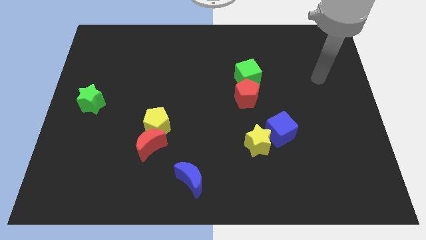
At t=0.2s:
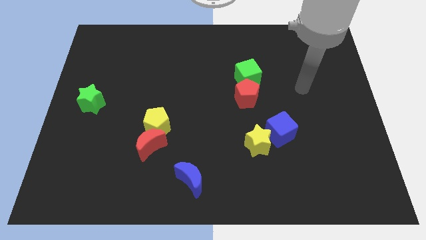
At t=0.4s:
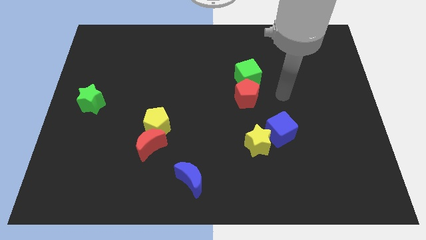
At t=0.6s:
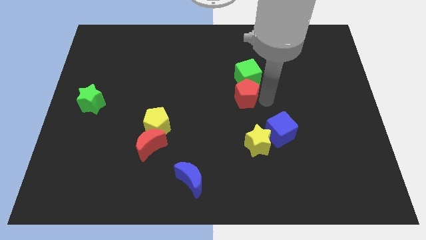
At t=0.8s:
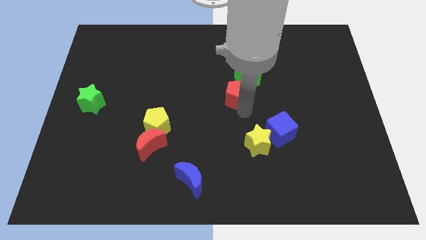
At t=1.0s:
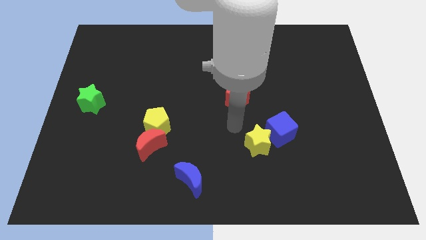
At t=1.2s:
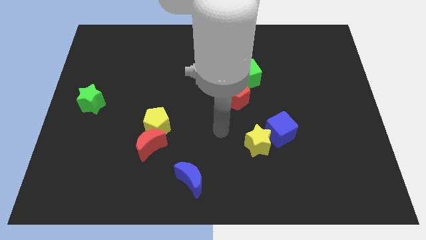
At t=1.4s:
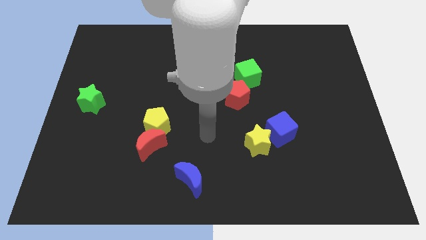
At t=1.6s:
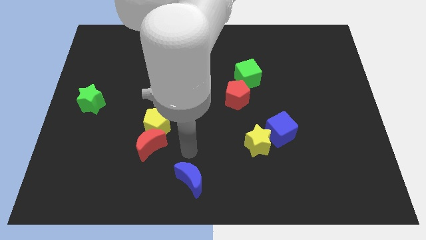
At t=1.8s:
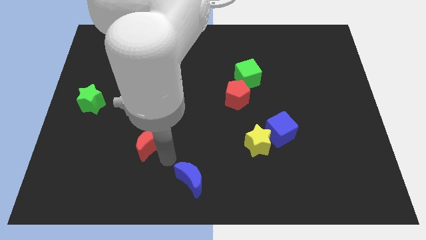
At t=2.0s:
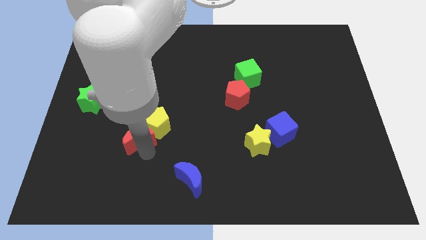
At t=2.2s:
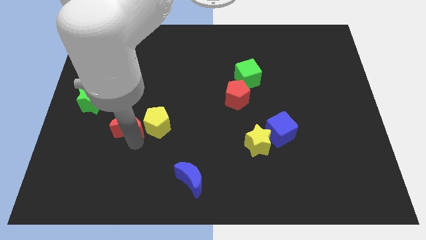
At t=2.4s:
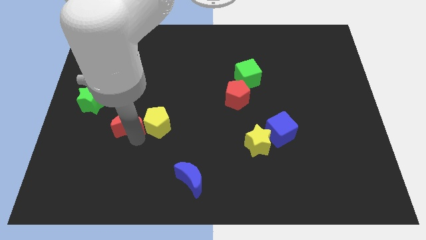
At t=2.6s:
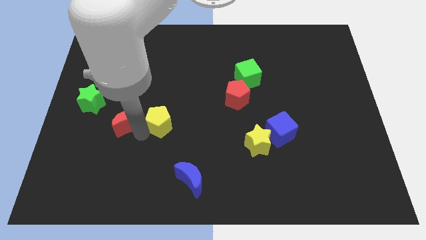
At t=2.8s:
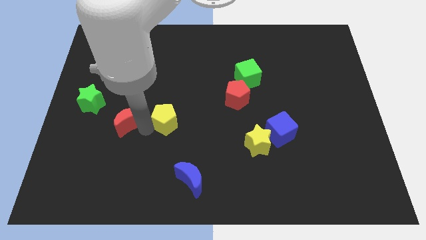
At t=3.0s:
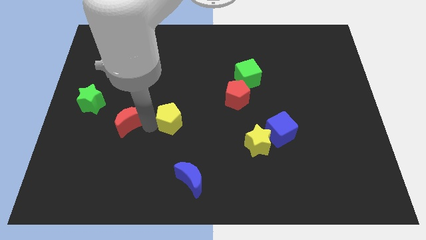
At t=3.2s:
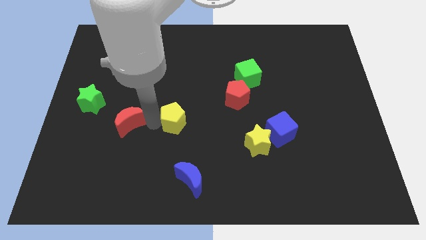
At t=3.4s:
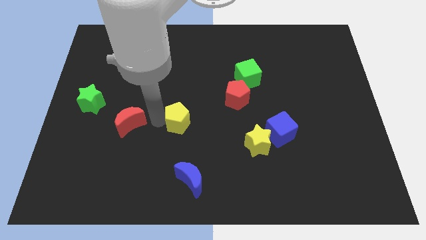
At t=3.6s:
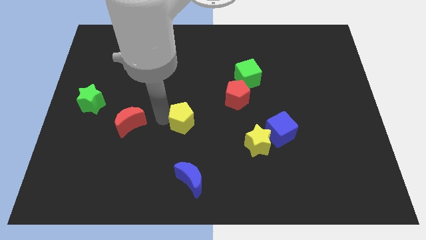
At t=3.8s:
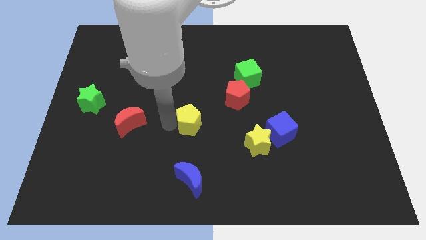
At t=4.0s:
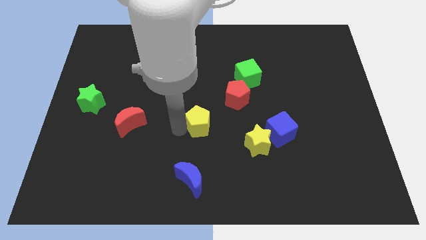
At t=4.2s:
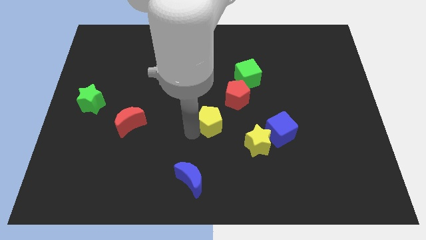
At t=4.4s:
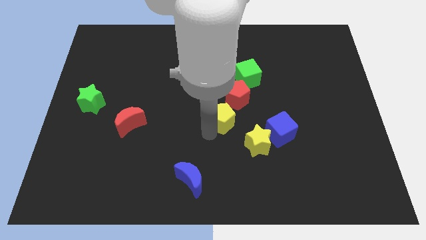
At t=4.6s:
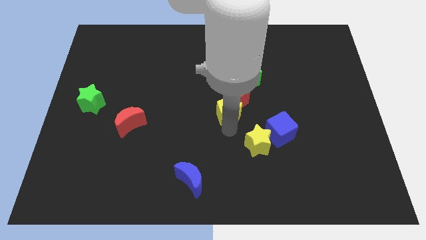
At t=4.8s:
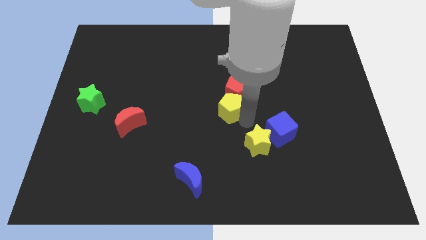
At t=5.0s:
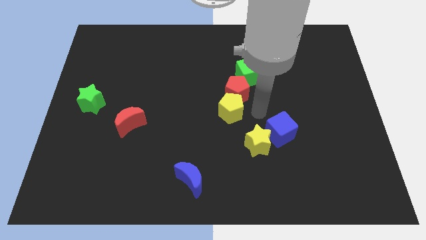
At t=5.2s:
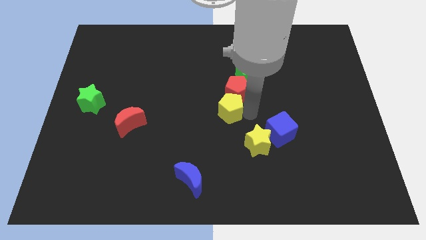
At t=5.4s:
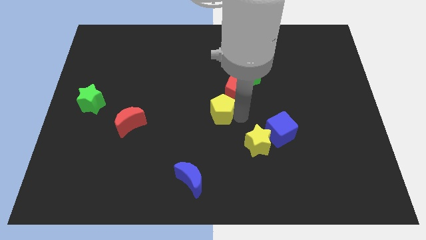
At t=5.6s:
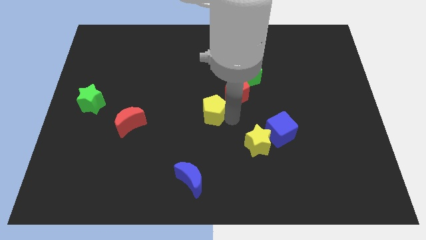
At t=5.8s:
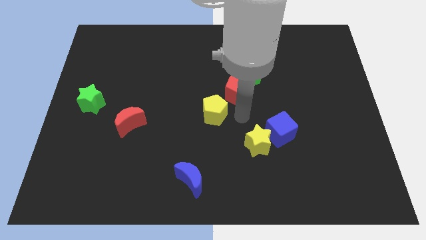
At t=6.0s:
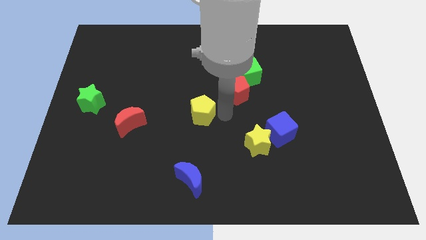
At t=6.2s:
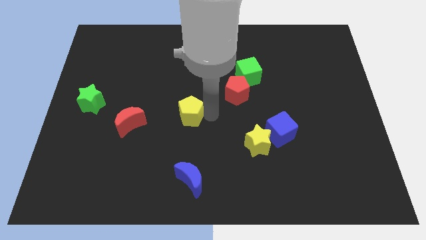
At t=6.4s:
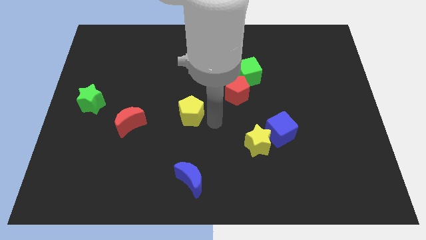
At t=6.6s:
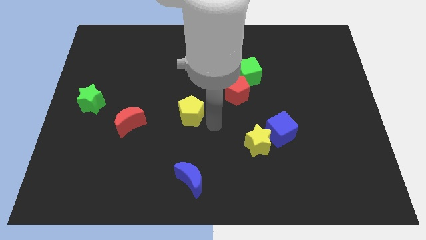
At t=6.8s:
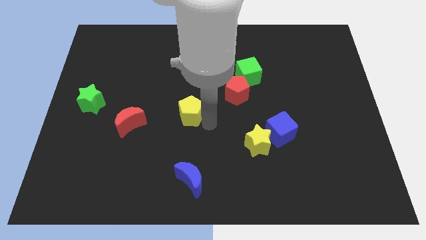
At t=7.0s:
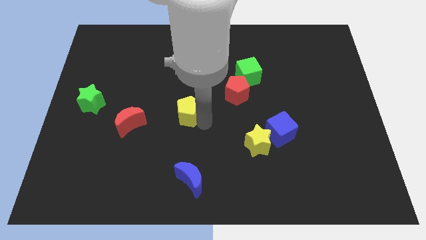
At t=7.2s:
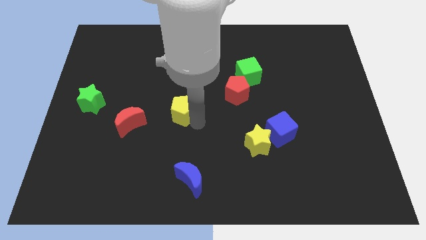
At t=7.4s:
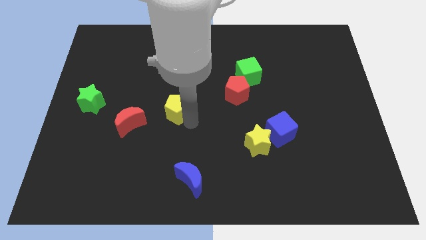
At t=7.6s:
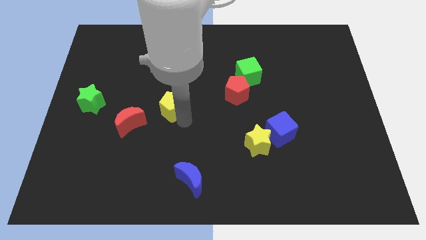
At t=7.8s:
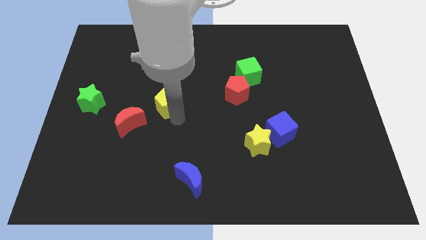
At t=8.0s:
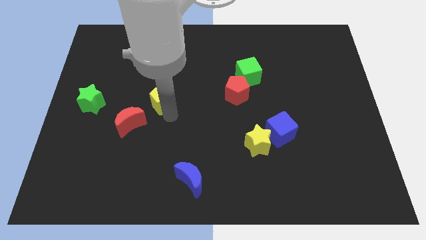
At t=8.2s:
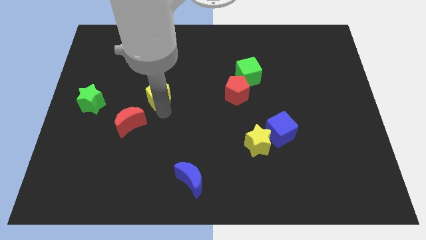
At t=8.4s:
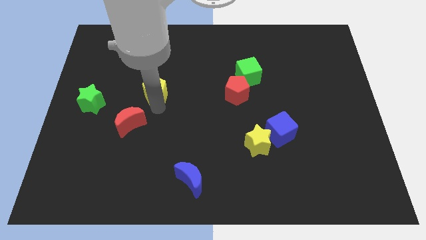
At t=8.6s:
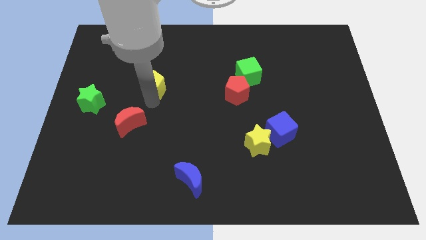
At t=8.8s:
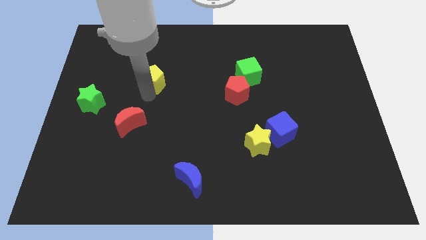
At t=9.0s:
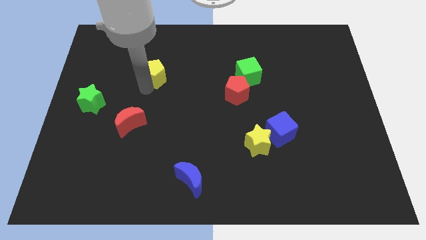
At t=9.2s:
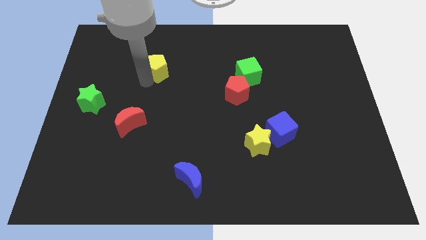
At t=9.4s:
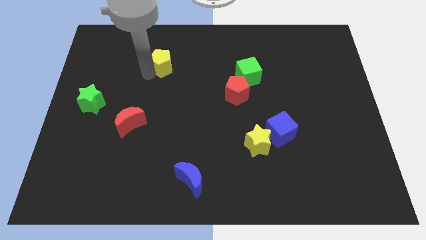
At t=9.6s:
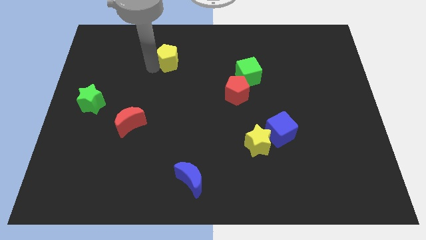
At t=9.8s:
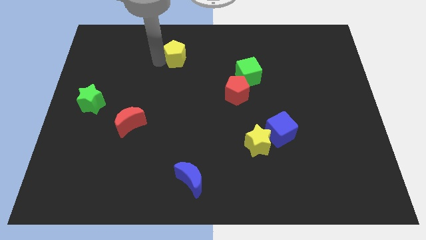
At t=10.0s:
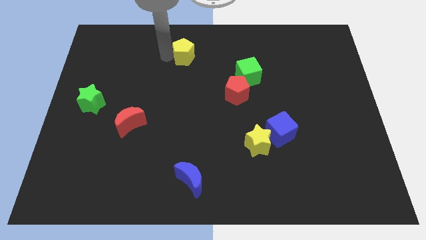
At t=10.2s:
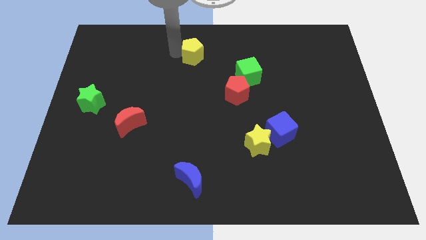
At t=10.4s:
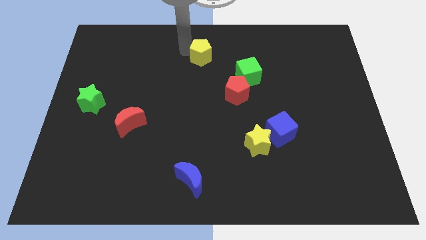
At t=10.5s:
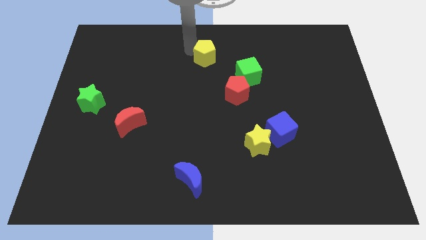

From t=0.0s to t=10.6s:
slide the yellow pentagon up and to the right diagonally

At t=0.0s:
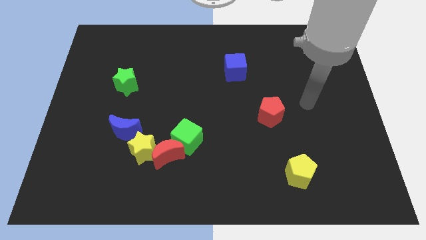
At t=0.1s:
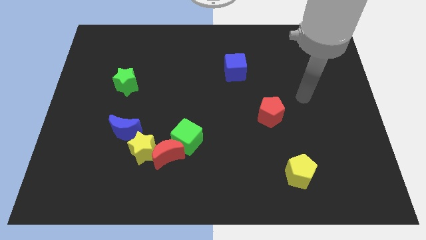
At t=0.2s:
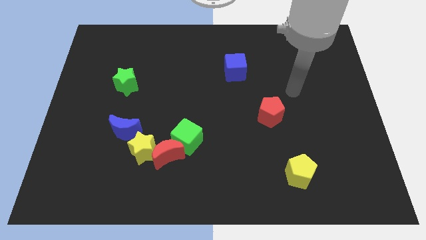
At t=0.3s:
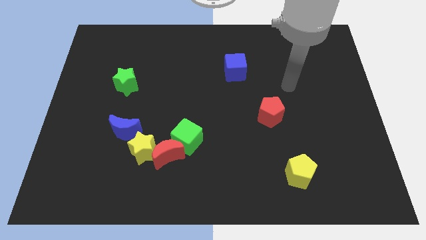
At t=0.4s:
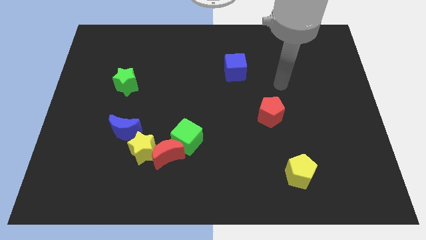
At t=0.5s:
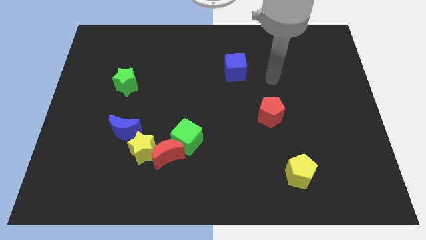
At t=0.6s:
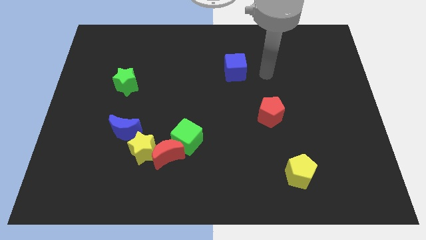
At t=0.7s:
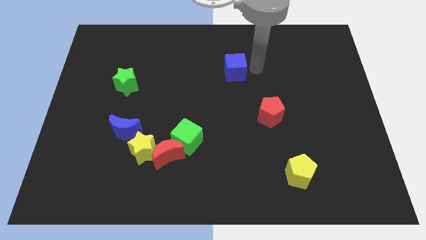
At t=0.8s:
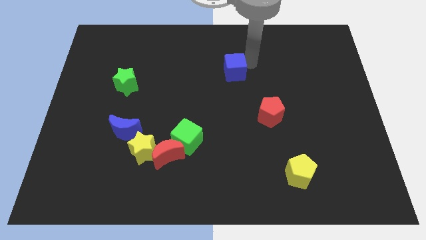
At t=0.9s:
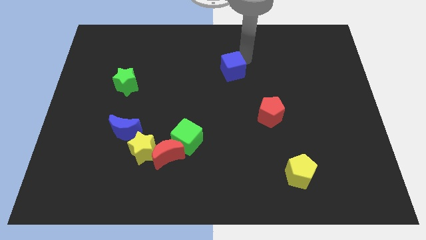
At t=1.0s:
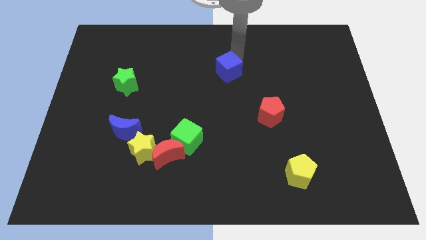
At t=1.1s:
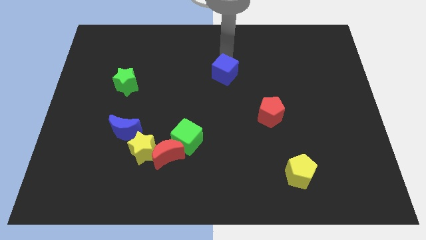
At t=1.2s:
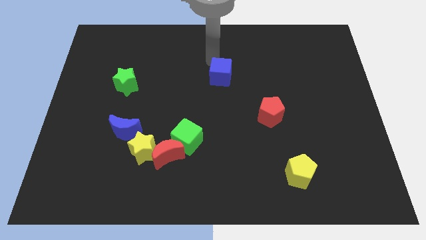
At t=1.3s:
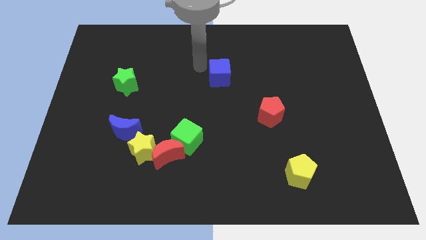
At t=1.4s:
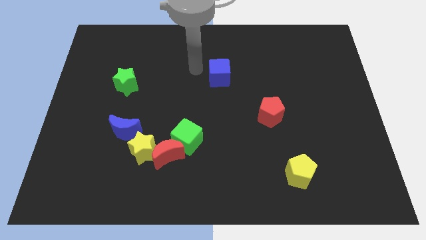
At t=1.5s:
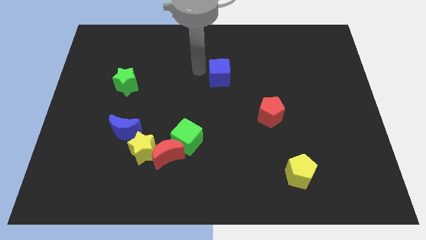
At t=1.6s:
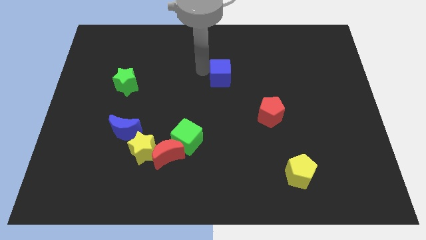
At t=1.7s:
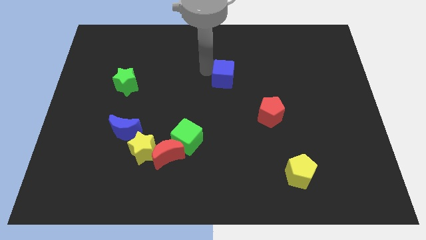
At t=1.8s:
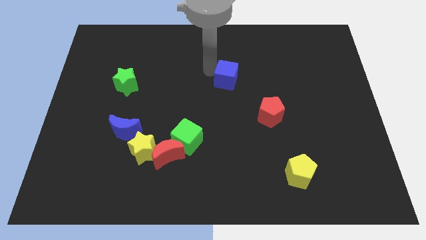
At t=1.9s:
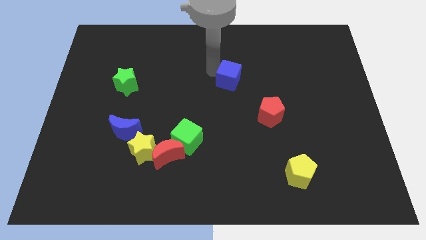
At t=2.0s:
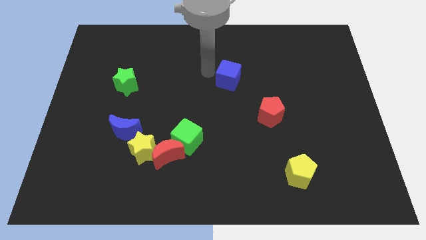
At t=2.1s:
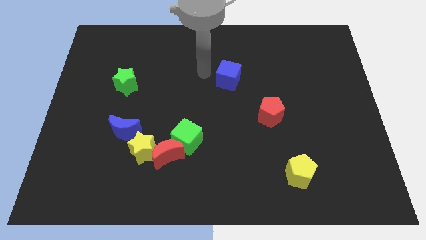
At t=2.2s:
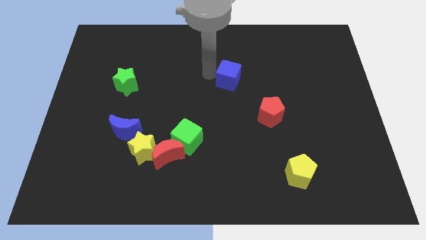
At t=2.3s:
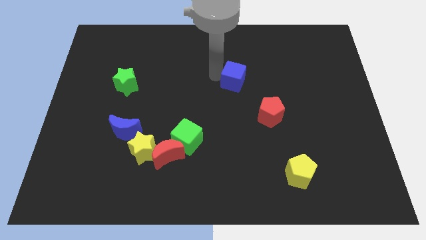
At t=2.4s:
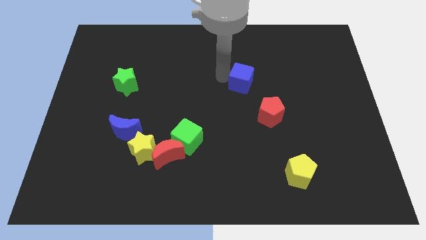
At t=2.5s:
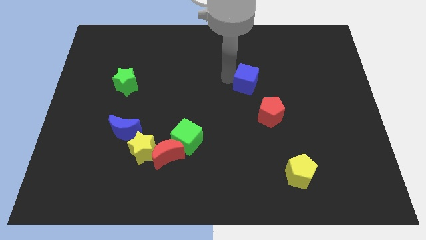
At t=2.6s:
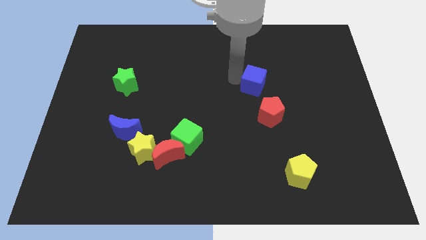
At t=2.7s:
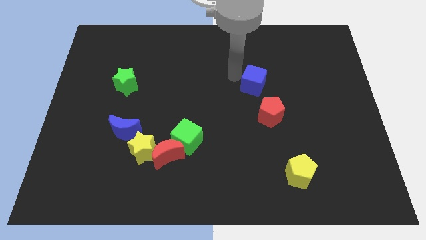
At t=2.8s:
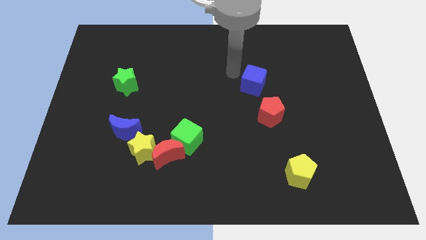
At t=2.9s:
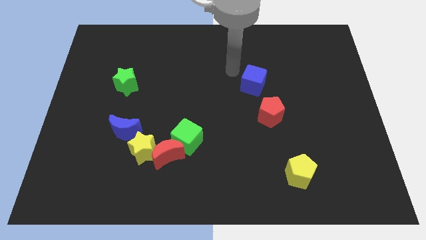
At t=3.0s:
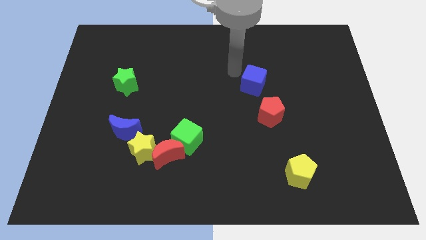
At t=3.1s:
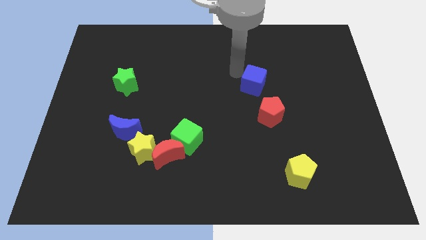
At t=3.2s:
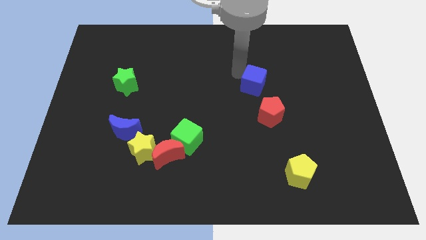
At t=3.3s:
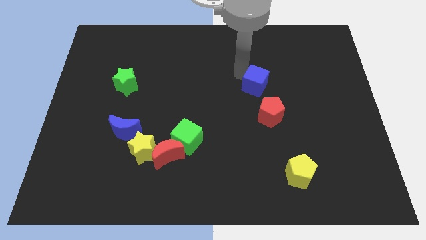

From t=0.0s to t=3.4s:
push the blue cube a little bit downwards and right diagonally
